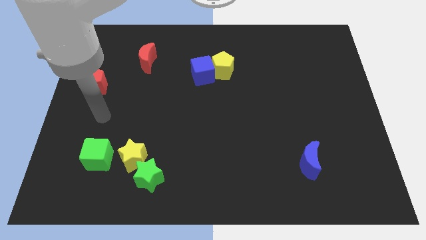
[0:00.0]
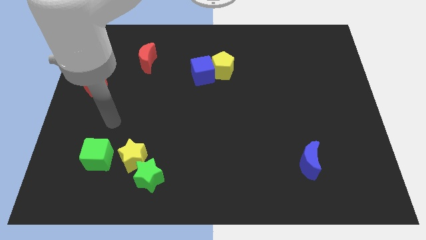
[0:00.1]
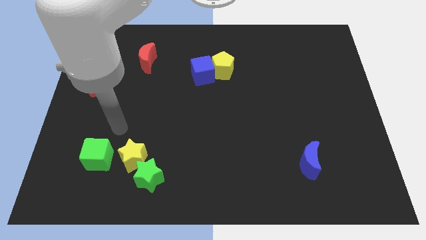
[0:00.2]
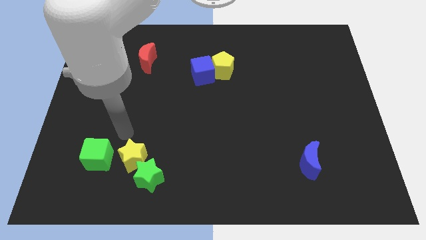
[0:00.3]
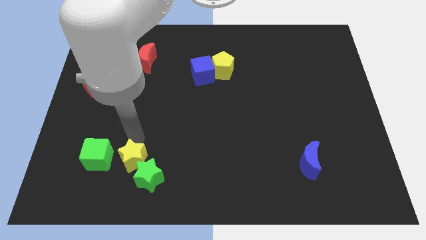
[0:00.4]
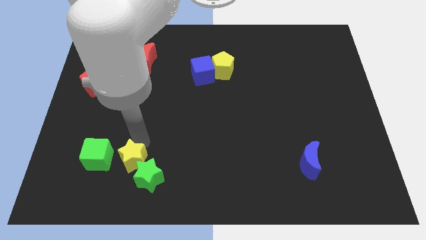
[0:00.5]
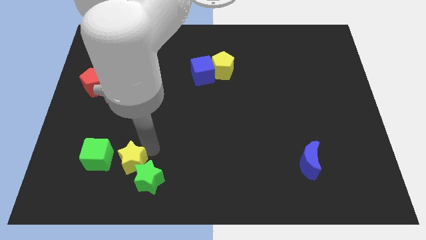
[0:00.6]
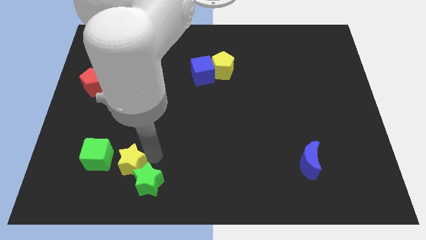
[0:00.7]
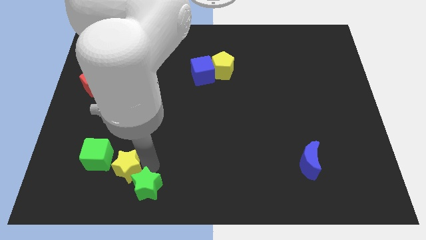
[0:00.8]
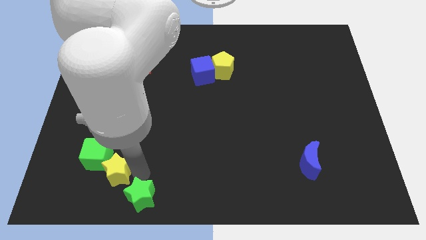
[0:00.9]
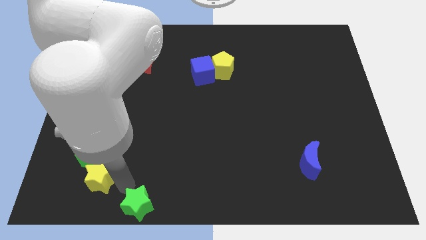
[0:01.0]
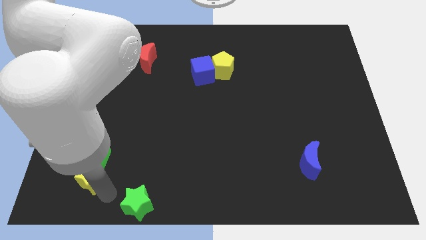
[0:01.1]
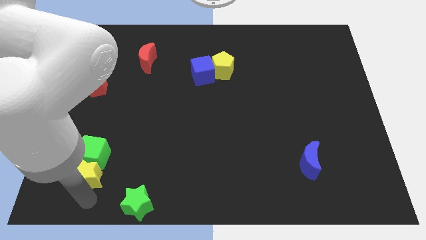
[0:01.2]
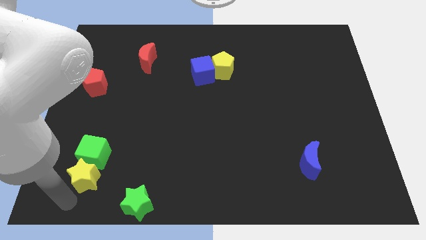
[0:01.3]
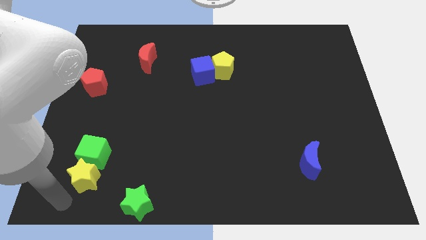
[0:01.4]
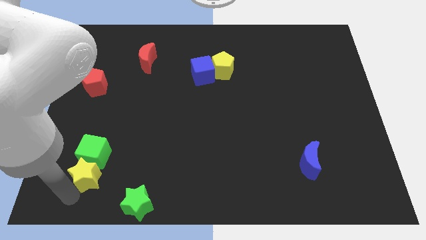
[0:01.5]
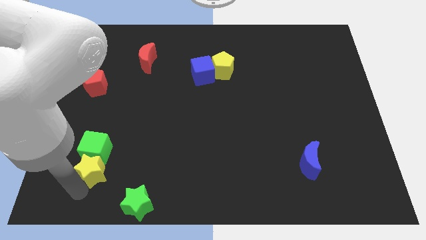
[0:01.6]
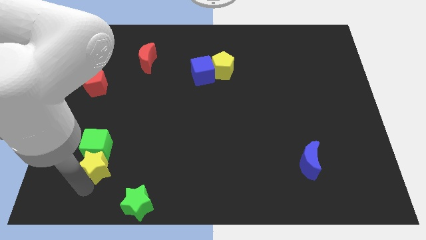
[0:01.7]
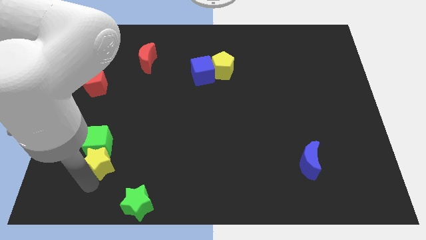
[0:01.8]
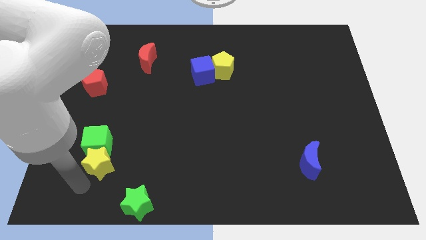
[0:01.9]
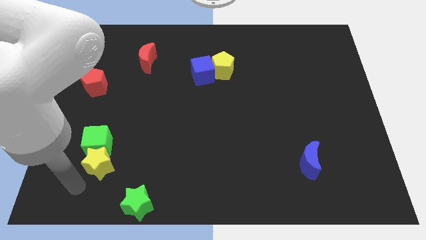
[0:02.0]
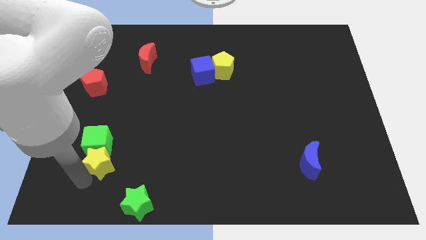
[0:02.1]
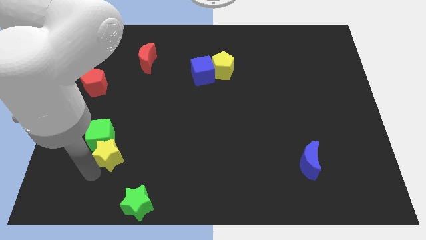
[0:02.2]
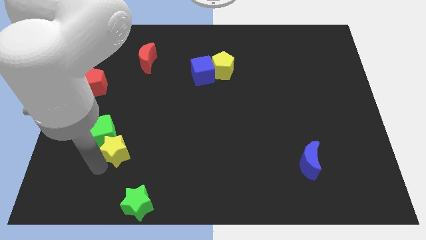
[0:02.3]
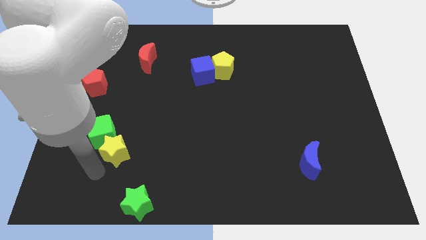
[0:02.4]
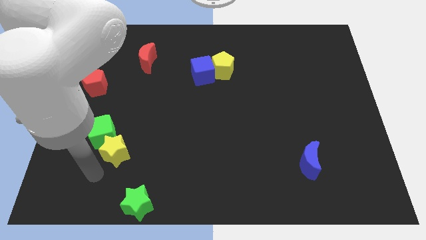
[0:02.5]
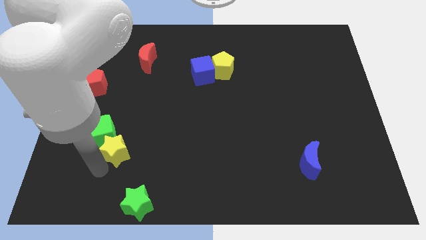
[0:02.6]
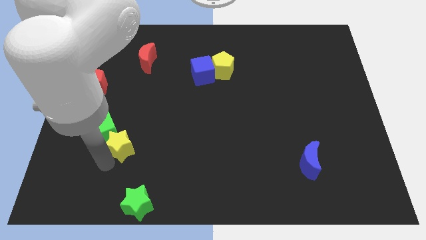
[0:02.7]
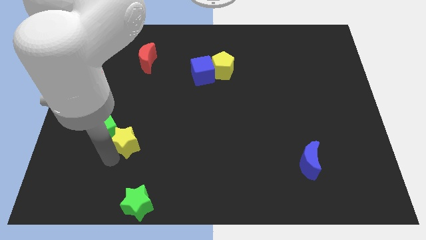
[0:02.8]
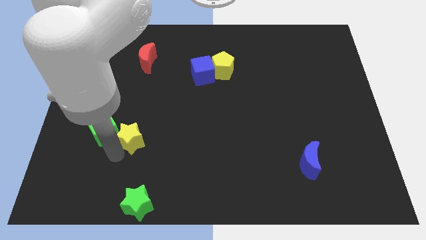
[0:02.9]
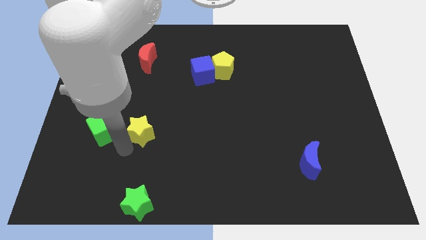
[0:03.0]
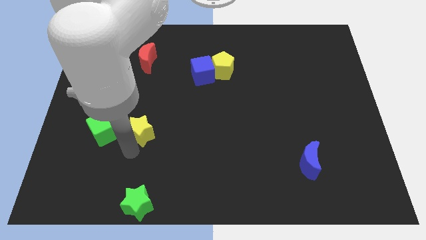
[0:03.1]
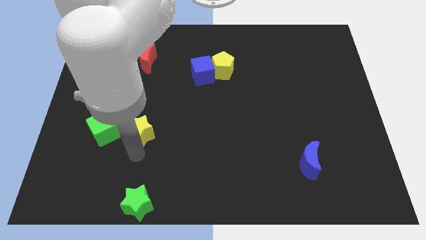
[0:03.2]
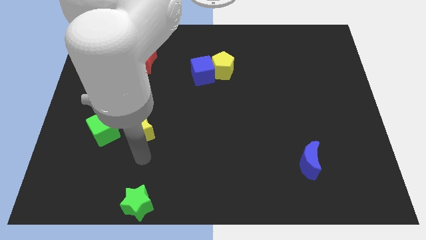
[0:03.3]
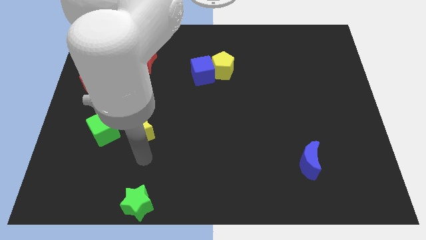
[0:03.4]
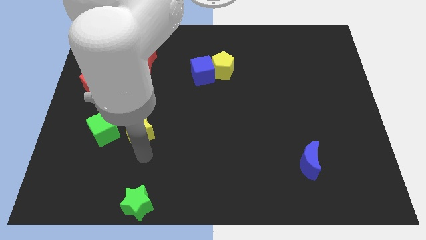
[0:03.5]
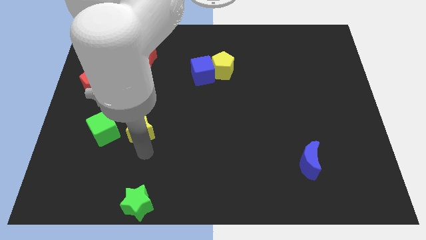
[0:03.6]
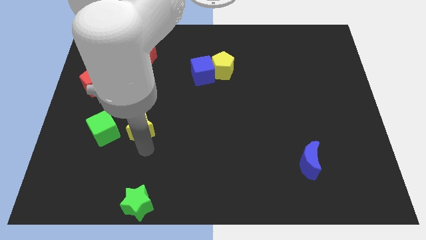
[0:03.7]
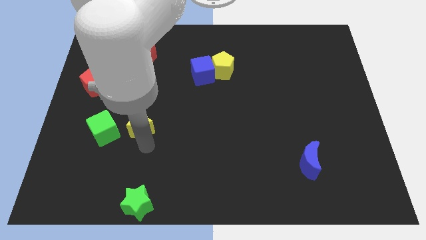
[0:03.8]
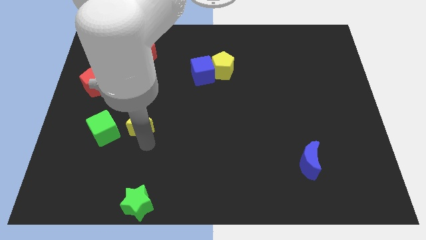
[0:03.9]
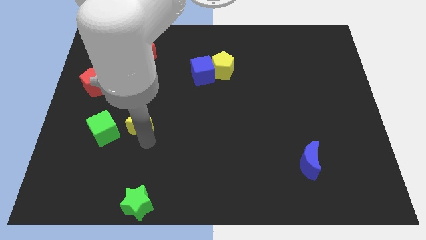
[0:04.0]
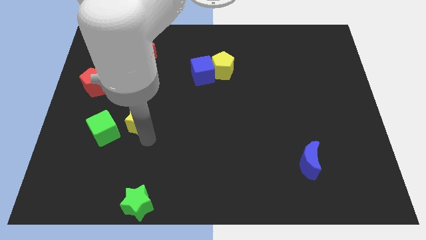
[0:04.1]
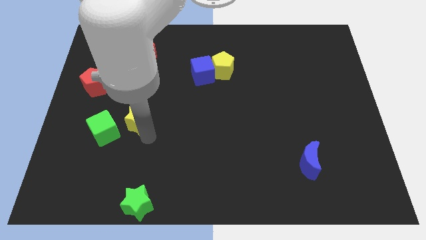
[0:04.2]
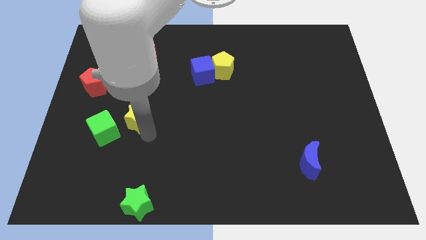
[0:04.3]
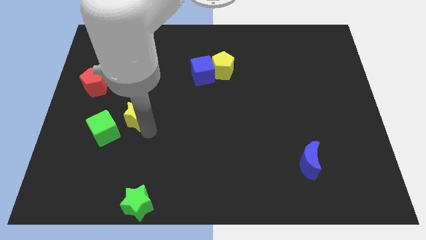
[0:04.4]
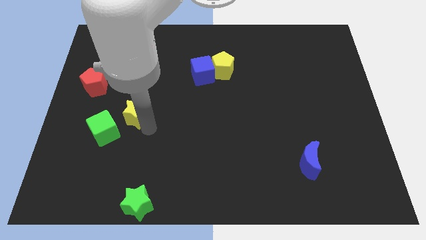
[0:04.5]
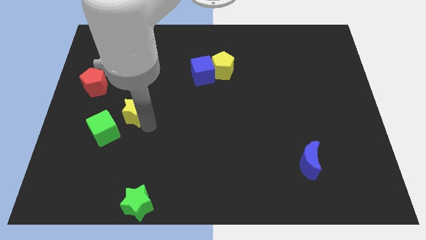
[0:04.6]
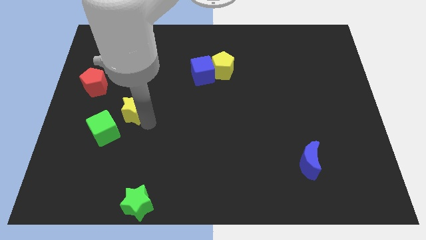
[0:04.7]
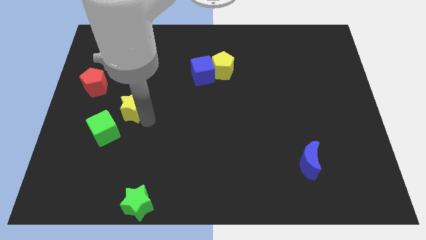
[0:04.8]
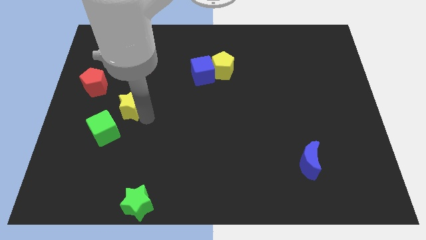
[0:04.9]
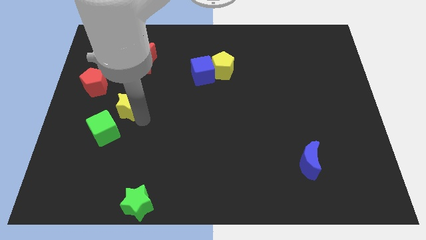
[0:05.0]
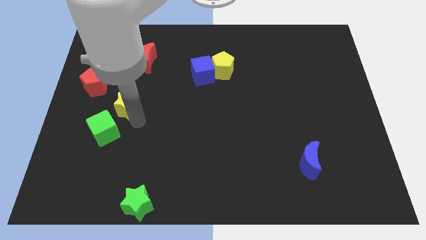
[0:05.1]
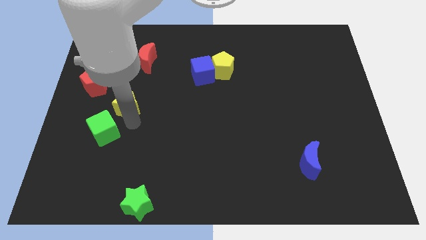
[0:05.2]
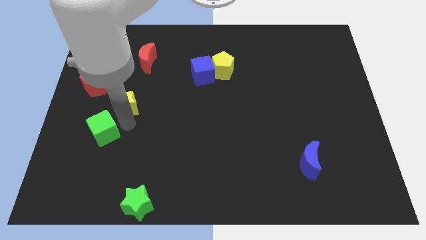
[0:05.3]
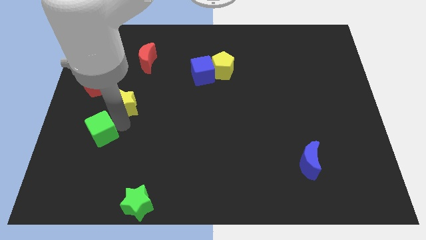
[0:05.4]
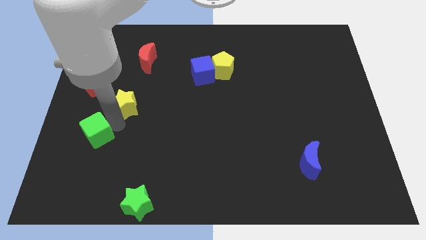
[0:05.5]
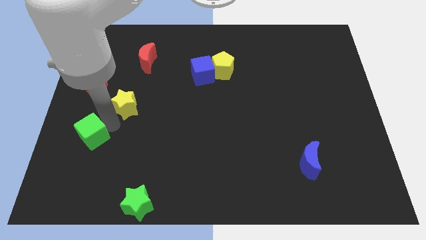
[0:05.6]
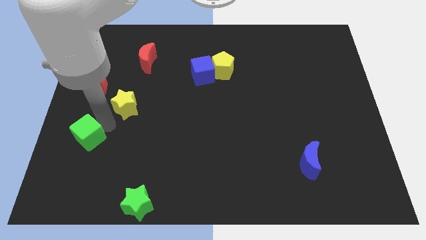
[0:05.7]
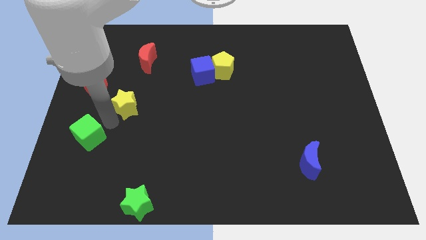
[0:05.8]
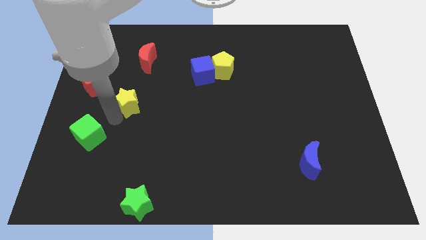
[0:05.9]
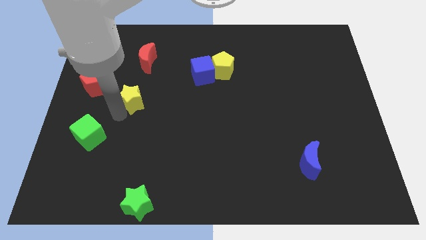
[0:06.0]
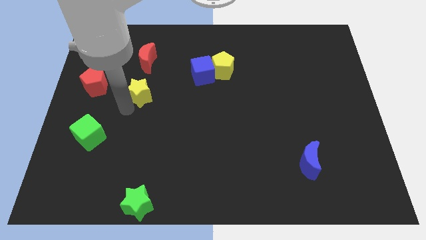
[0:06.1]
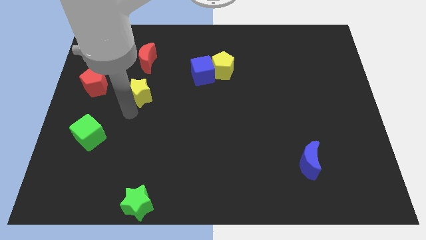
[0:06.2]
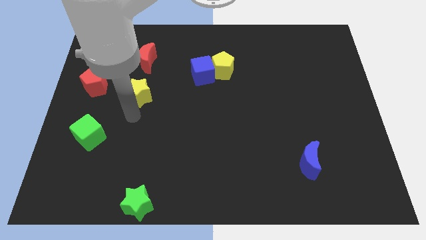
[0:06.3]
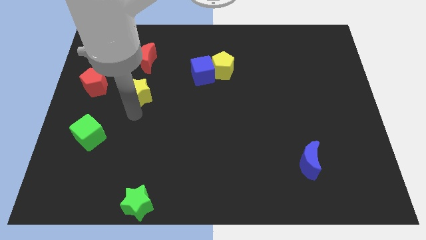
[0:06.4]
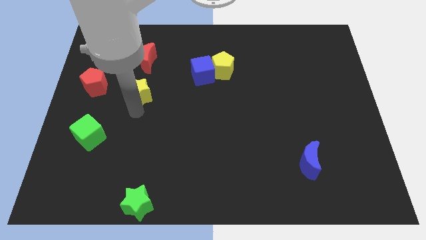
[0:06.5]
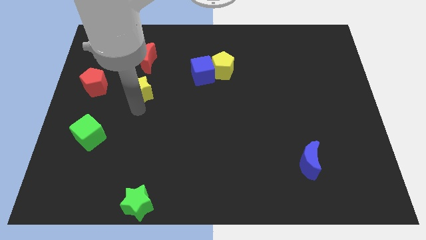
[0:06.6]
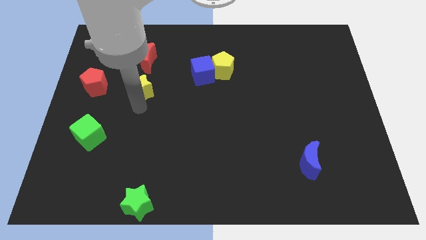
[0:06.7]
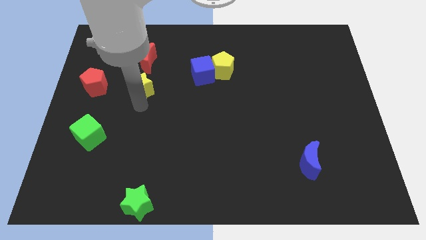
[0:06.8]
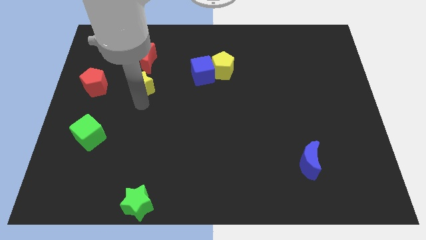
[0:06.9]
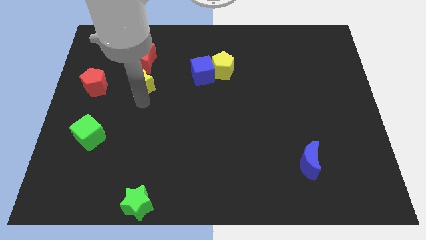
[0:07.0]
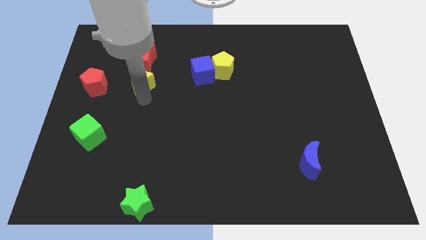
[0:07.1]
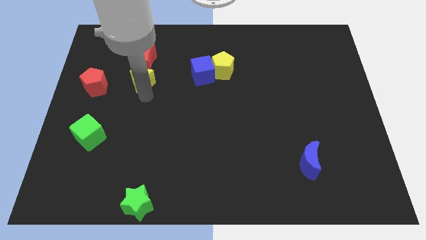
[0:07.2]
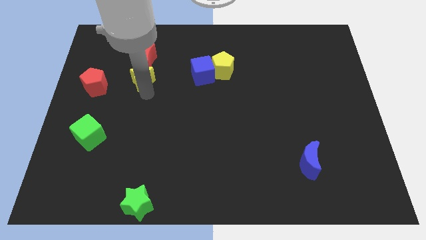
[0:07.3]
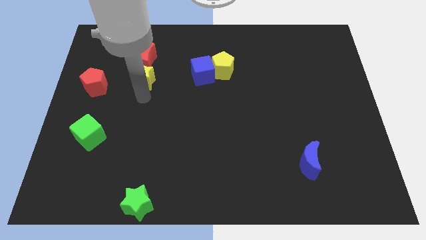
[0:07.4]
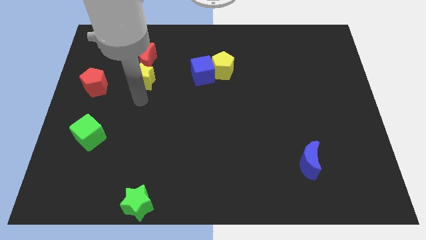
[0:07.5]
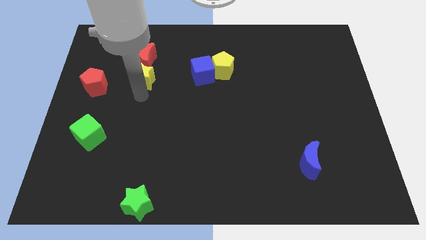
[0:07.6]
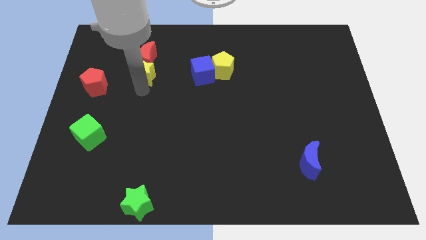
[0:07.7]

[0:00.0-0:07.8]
put the yellow star to the red moon
